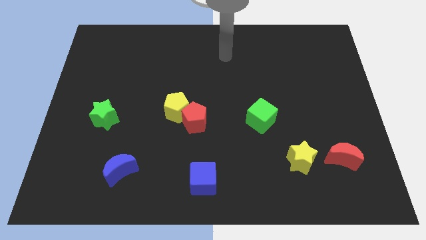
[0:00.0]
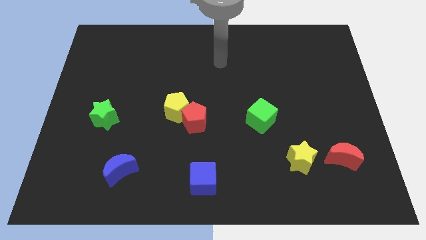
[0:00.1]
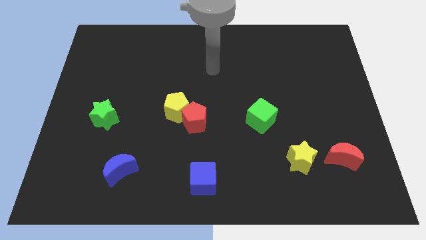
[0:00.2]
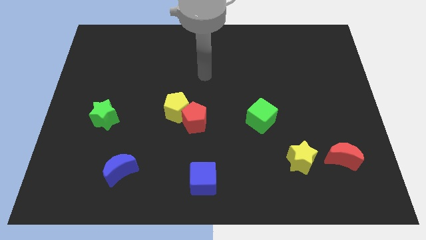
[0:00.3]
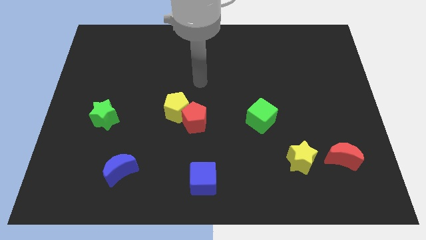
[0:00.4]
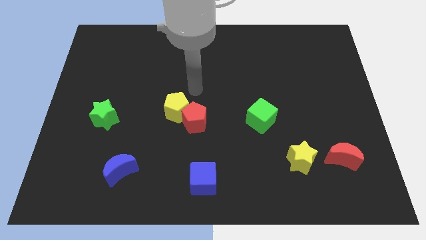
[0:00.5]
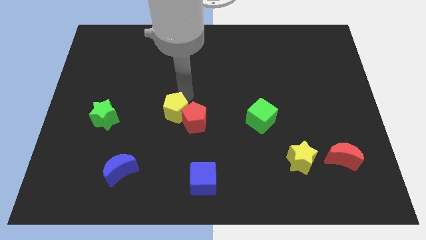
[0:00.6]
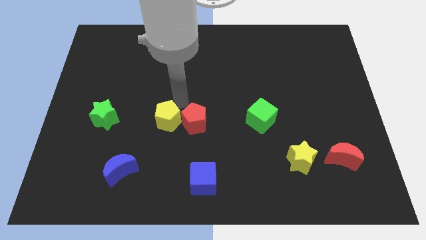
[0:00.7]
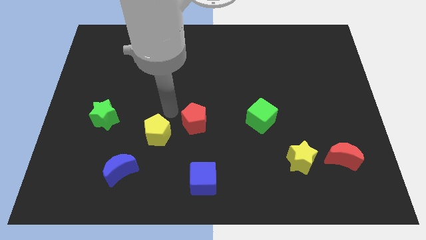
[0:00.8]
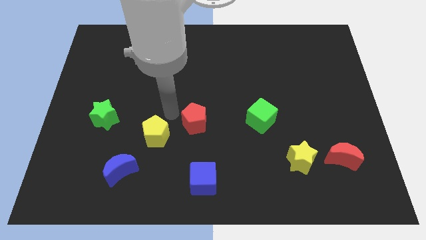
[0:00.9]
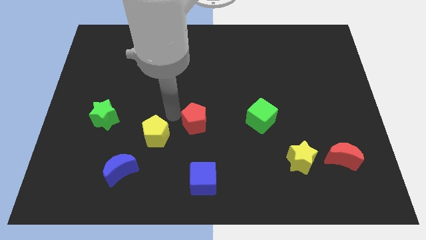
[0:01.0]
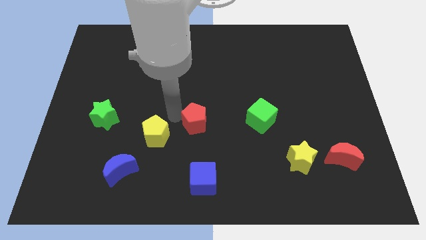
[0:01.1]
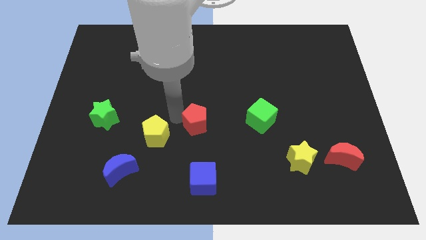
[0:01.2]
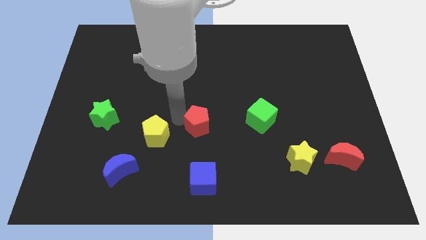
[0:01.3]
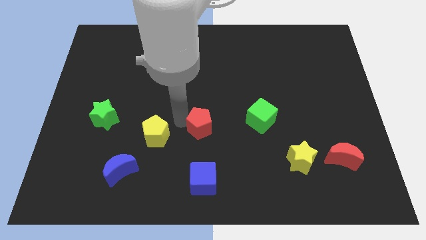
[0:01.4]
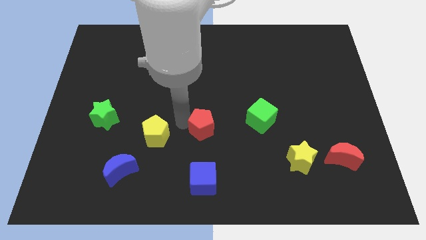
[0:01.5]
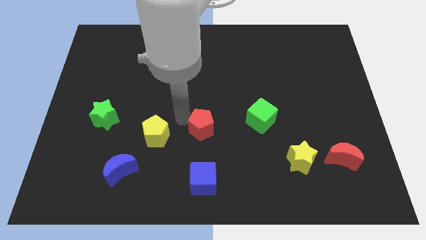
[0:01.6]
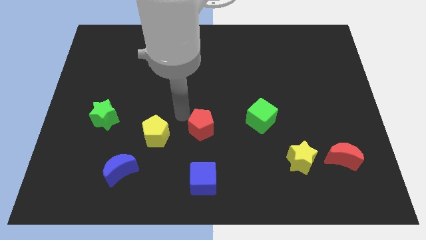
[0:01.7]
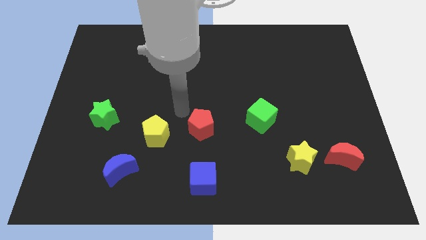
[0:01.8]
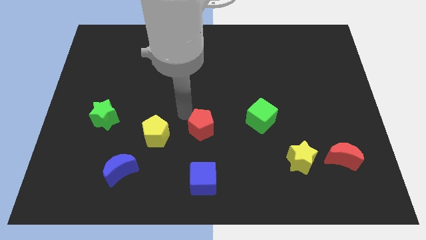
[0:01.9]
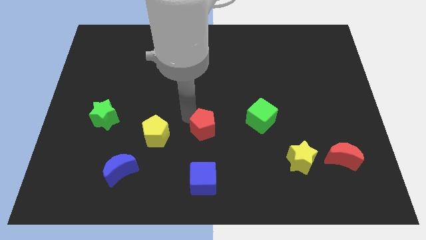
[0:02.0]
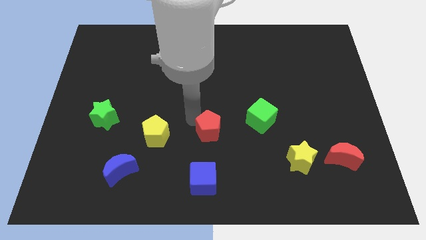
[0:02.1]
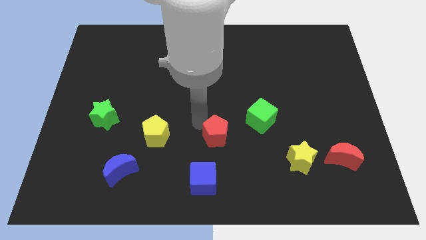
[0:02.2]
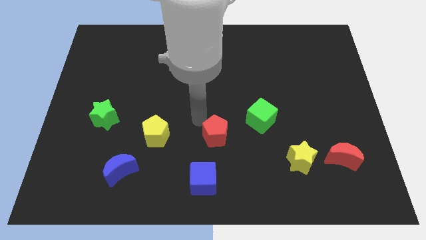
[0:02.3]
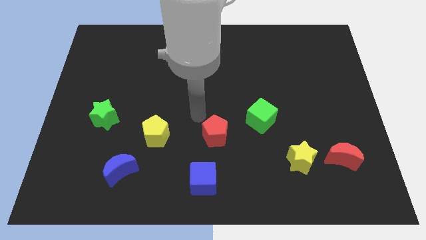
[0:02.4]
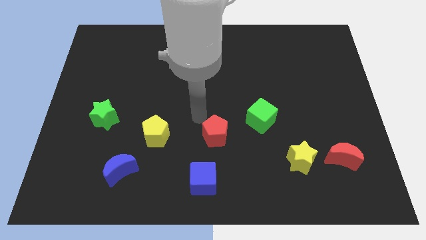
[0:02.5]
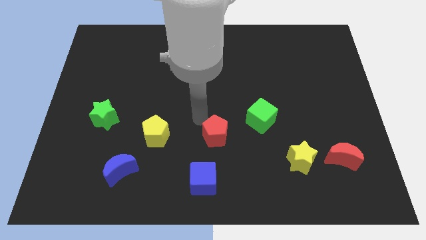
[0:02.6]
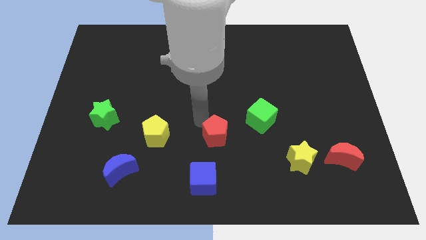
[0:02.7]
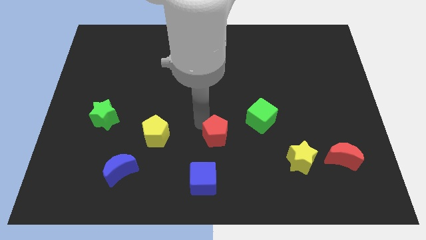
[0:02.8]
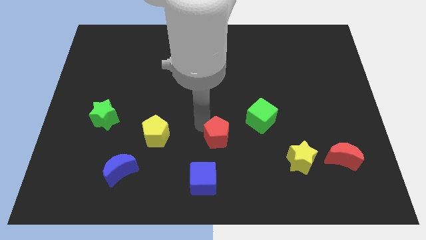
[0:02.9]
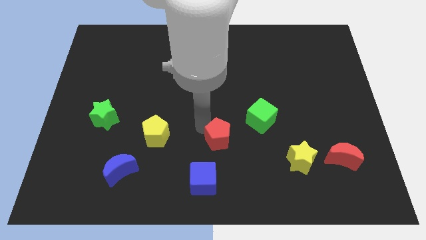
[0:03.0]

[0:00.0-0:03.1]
slide the red pentagon downwards and to the right slightly

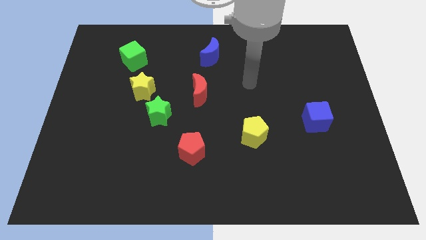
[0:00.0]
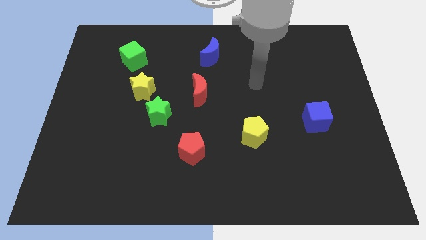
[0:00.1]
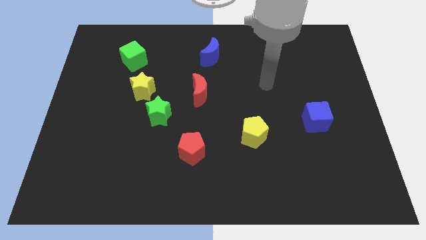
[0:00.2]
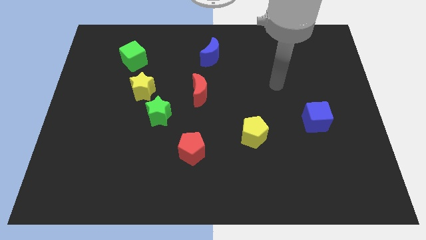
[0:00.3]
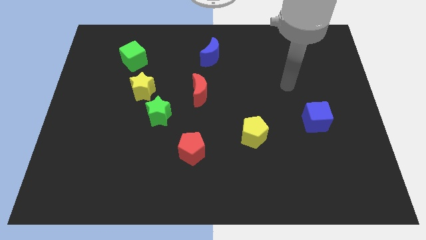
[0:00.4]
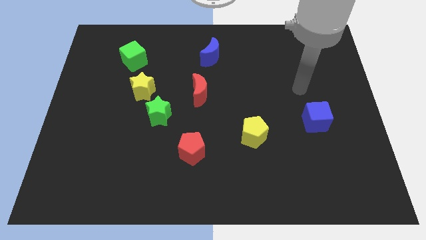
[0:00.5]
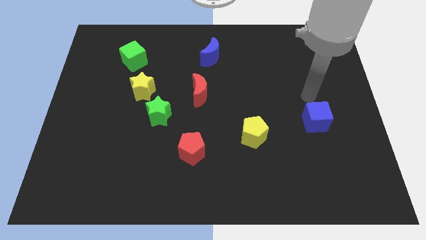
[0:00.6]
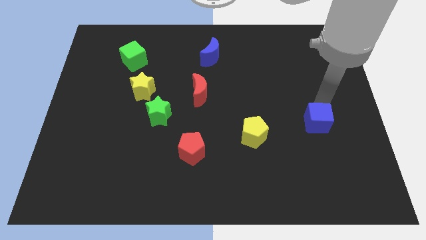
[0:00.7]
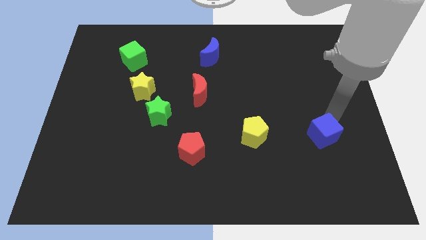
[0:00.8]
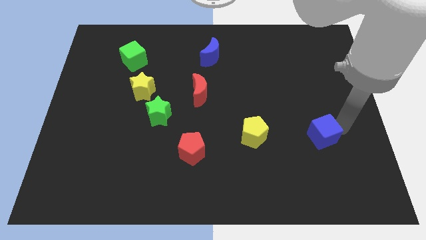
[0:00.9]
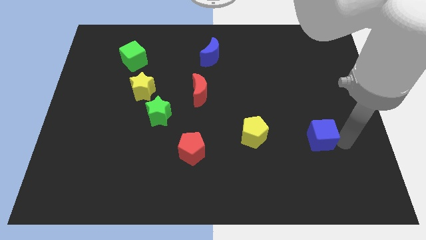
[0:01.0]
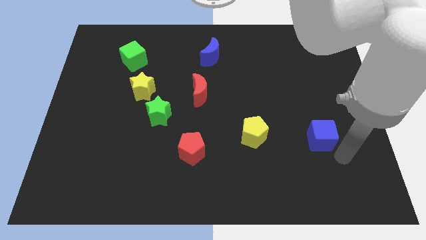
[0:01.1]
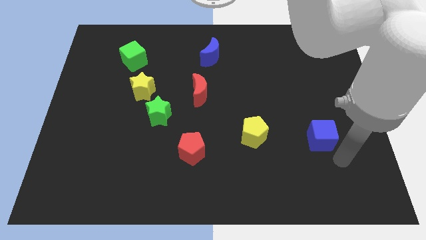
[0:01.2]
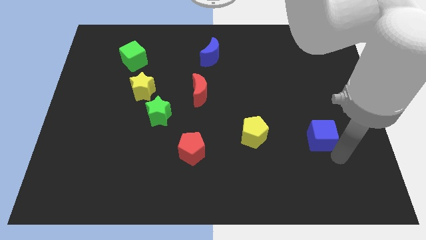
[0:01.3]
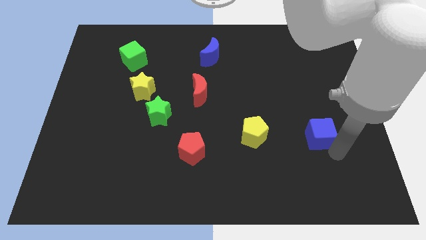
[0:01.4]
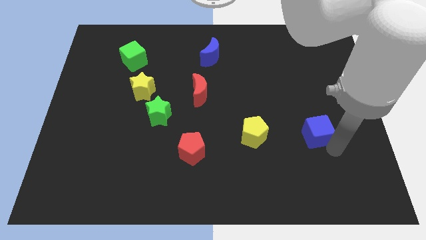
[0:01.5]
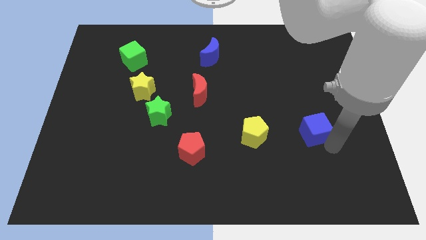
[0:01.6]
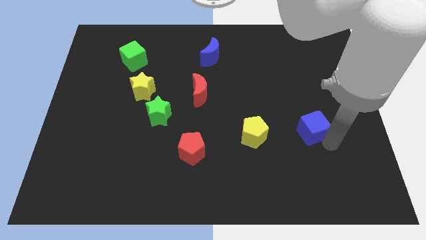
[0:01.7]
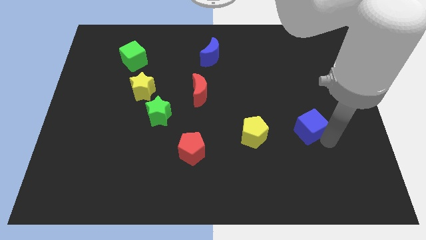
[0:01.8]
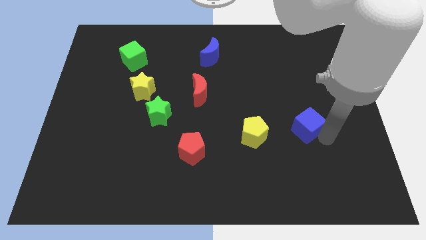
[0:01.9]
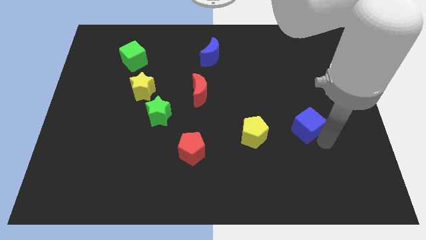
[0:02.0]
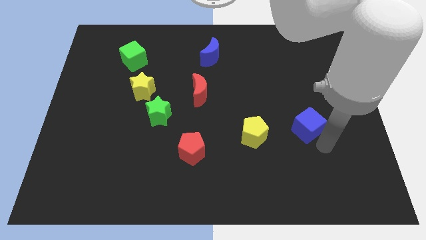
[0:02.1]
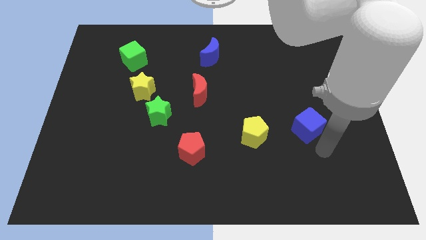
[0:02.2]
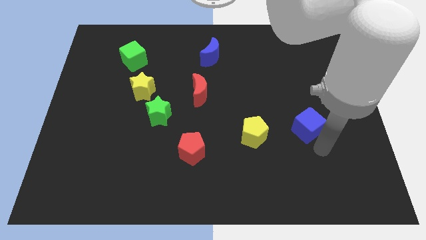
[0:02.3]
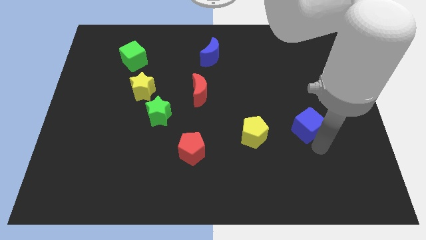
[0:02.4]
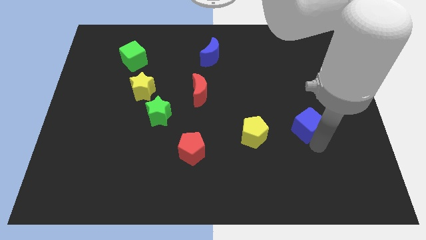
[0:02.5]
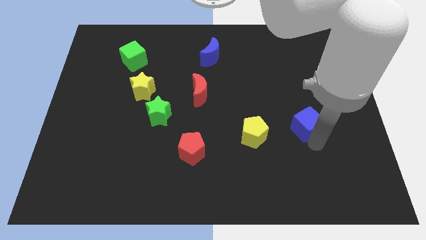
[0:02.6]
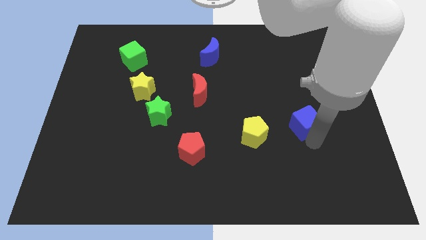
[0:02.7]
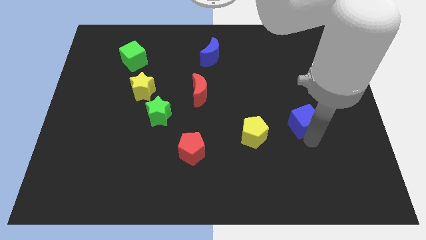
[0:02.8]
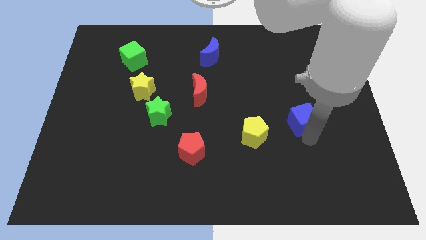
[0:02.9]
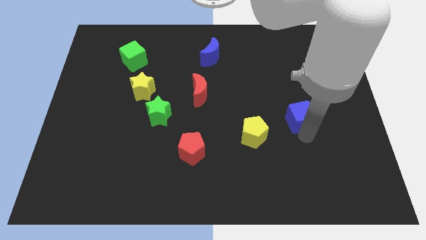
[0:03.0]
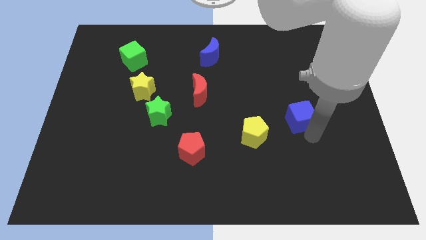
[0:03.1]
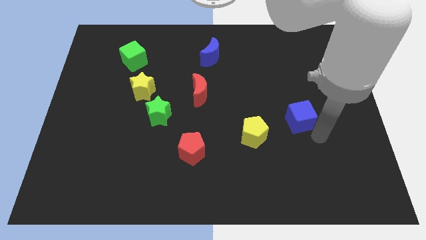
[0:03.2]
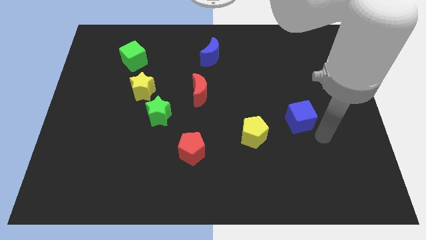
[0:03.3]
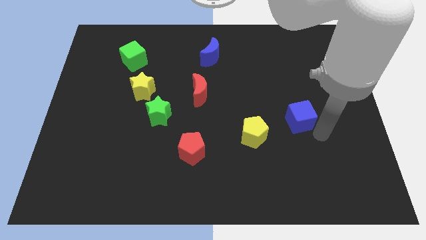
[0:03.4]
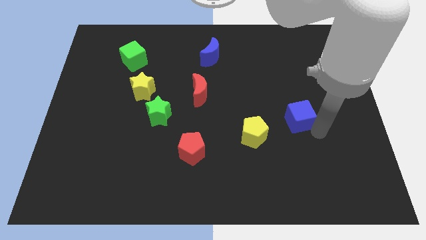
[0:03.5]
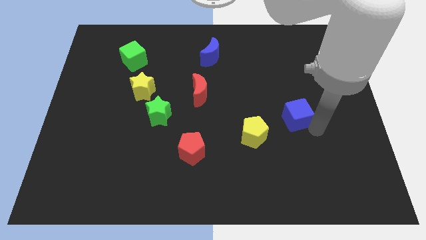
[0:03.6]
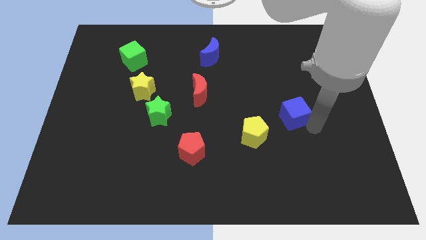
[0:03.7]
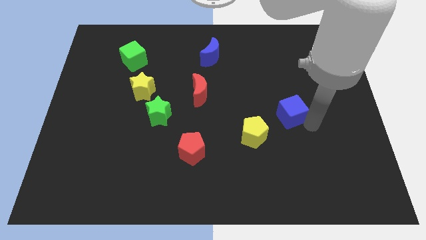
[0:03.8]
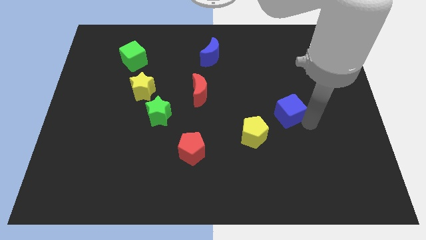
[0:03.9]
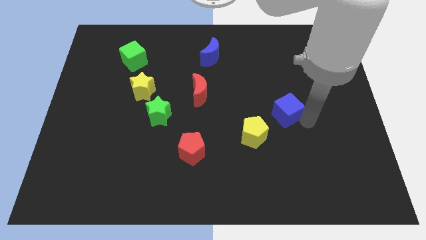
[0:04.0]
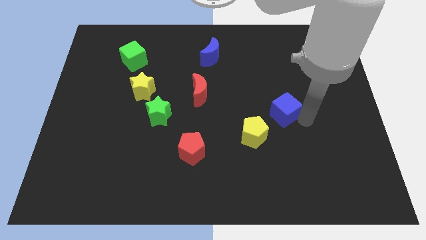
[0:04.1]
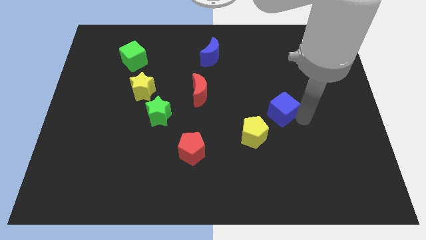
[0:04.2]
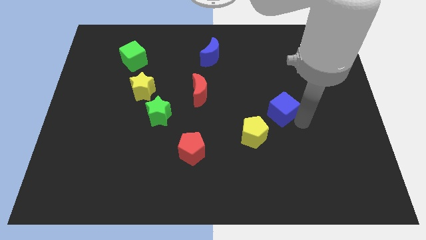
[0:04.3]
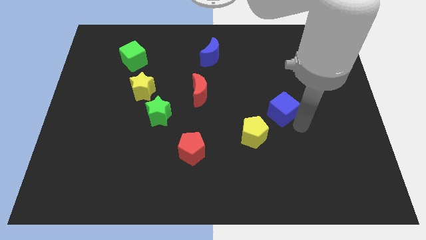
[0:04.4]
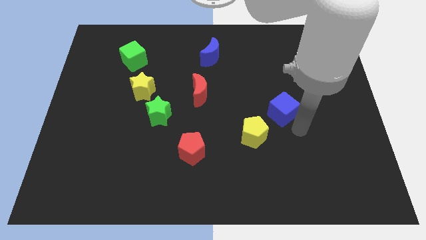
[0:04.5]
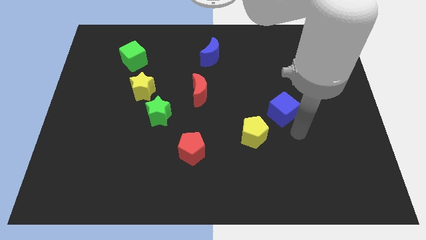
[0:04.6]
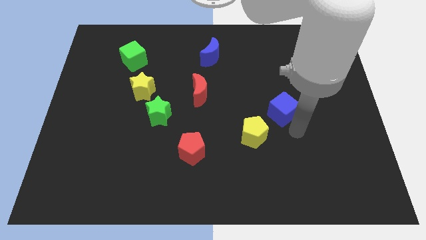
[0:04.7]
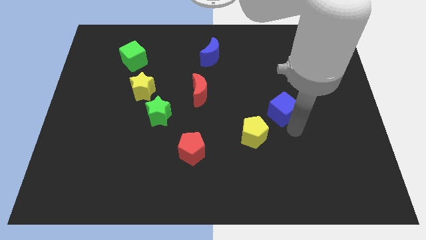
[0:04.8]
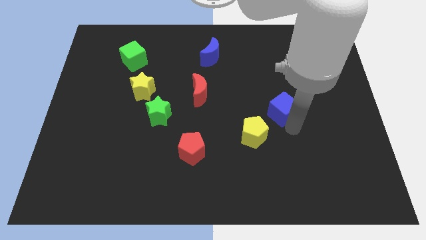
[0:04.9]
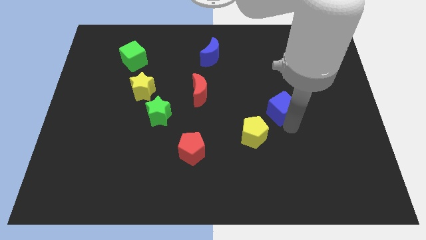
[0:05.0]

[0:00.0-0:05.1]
slightly push the blue cube up and to the left
